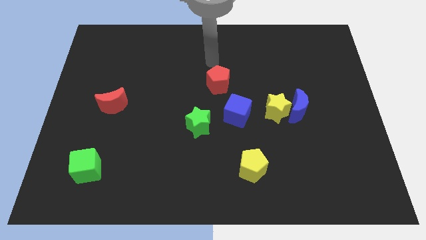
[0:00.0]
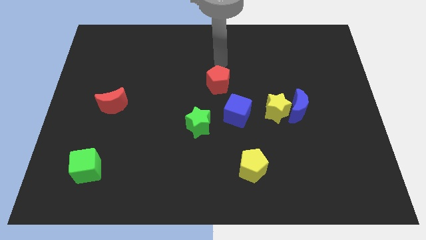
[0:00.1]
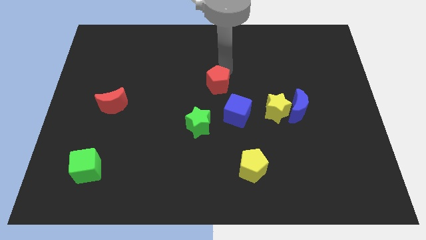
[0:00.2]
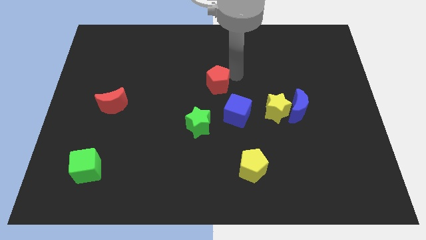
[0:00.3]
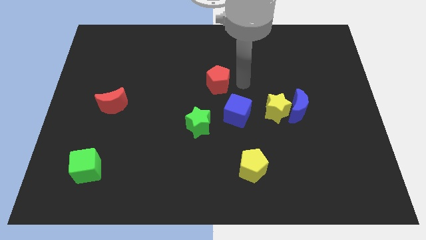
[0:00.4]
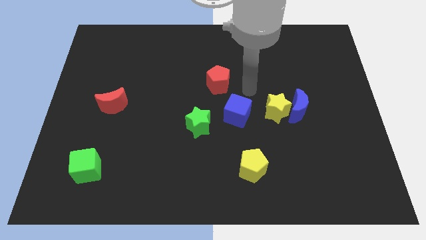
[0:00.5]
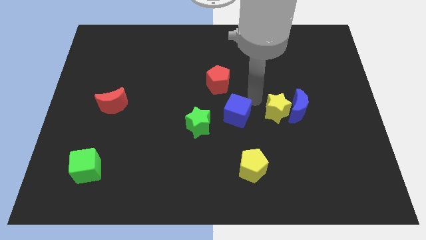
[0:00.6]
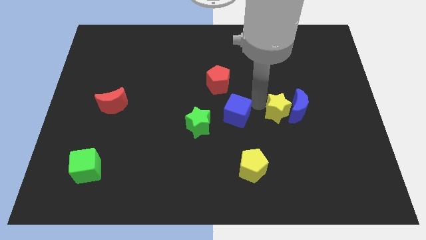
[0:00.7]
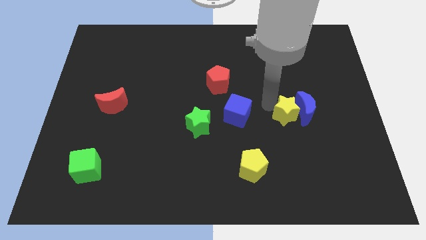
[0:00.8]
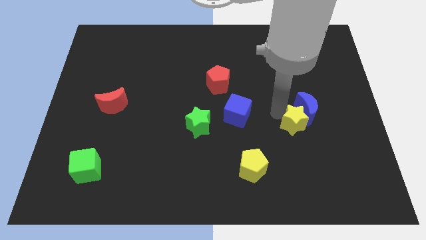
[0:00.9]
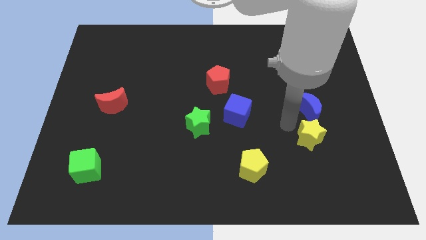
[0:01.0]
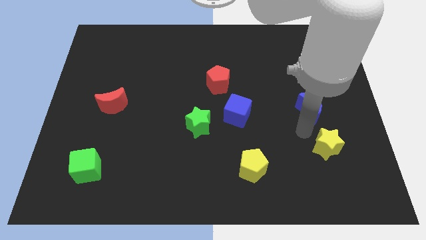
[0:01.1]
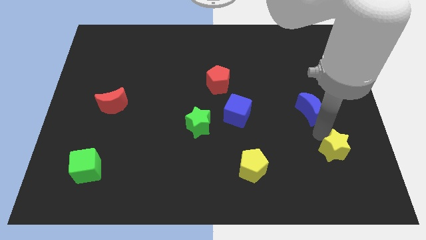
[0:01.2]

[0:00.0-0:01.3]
pull the blue moon apart from the yellow star

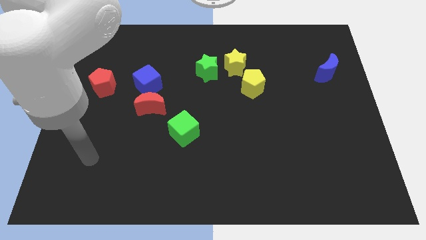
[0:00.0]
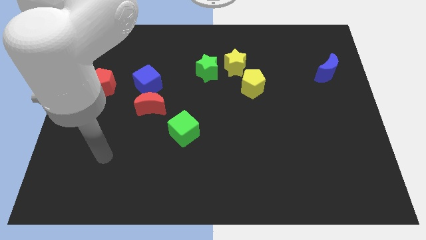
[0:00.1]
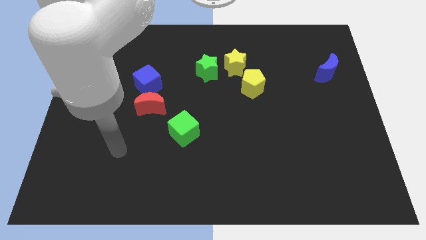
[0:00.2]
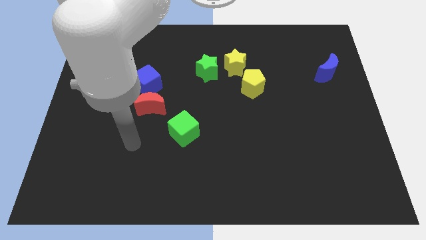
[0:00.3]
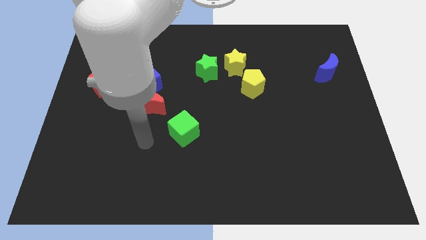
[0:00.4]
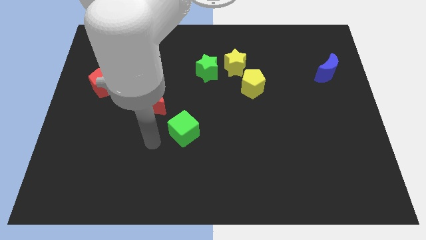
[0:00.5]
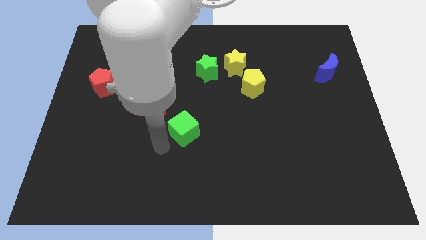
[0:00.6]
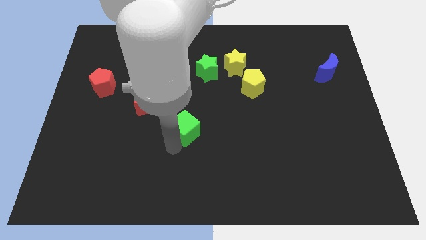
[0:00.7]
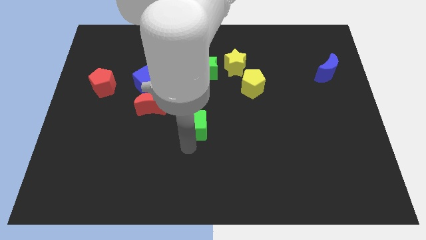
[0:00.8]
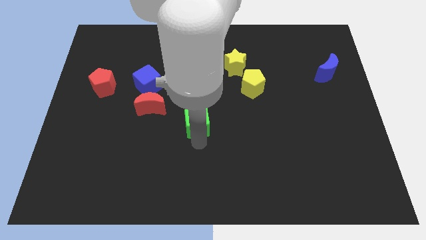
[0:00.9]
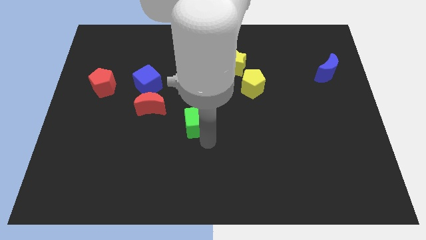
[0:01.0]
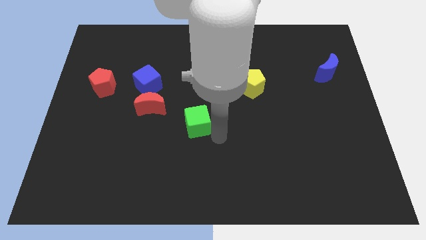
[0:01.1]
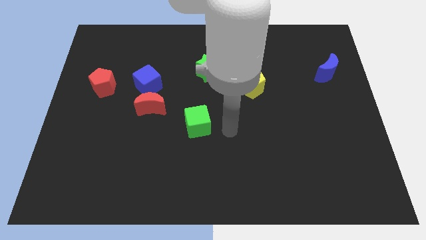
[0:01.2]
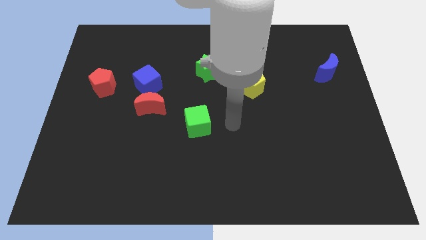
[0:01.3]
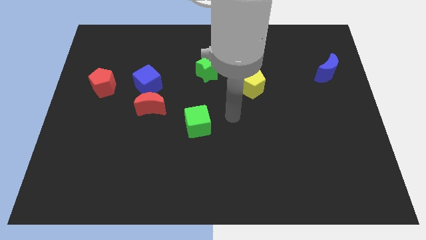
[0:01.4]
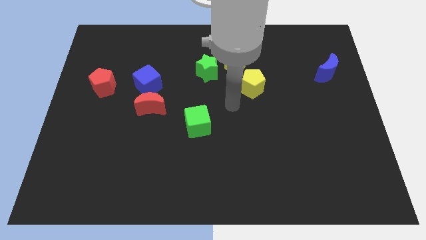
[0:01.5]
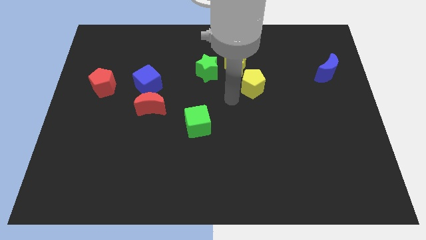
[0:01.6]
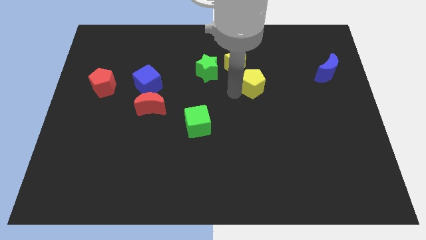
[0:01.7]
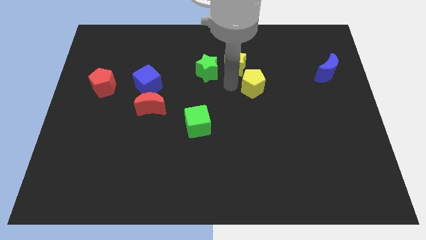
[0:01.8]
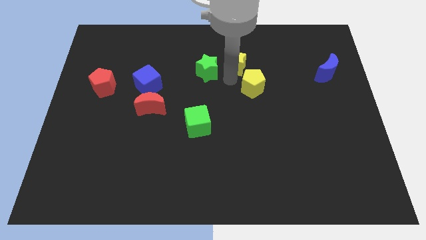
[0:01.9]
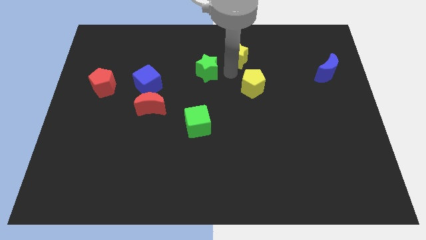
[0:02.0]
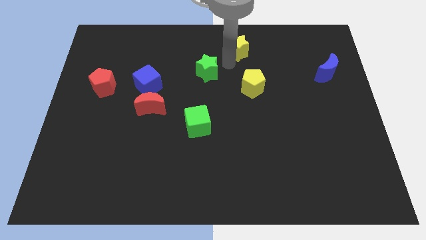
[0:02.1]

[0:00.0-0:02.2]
separate the green star from the yellow star

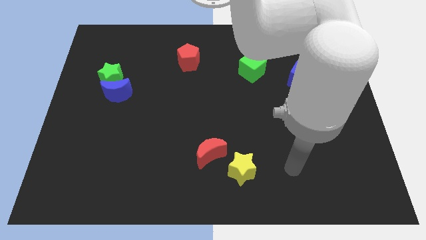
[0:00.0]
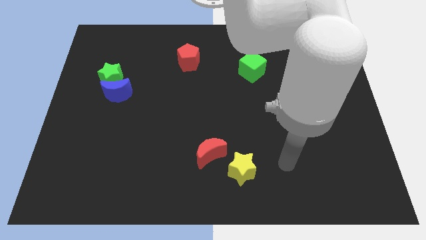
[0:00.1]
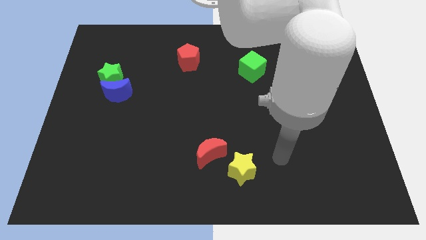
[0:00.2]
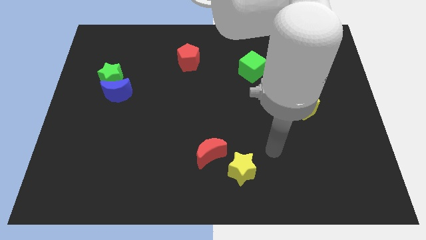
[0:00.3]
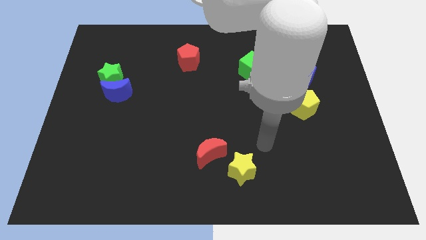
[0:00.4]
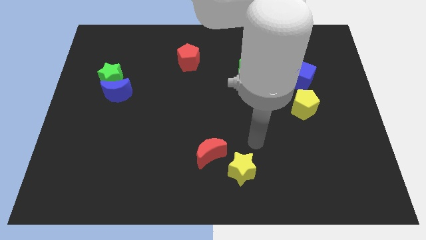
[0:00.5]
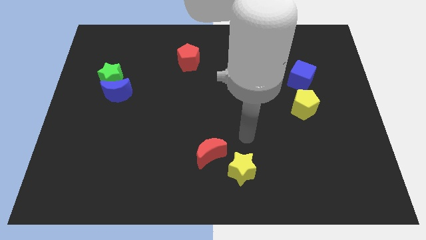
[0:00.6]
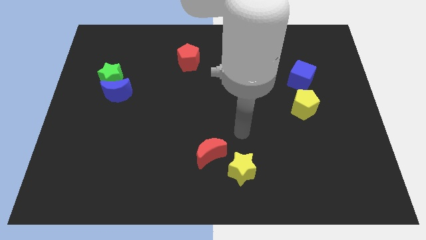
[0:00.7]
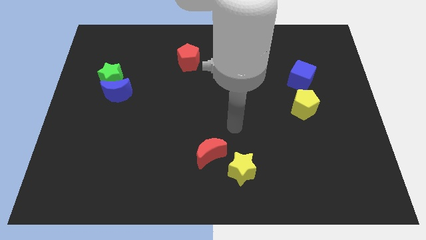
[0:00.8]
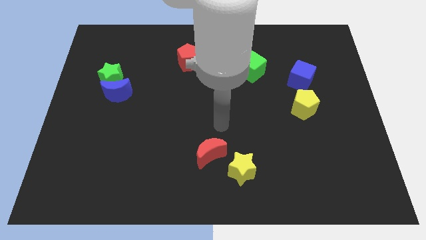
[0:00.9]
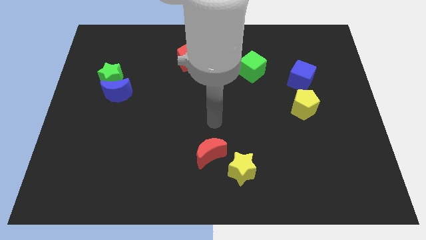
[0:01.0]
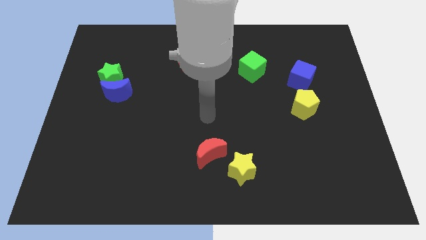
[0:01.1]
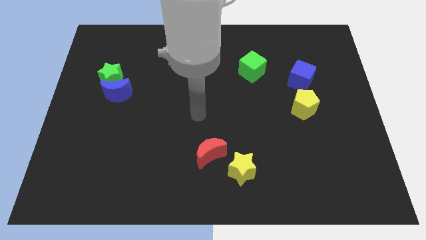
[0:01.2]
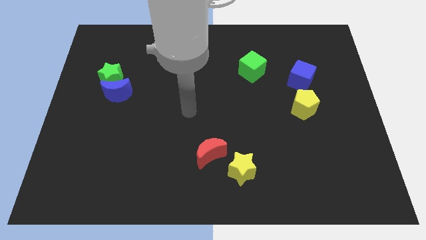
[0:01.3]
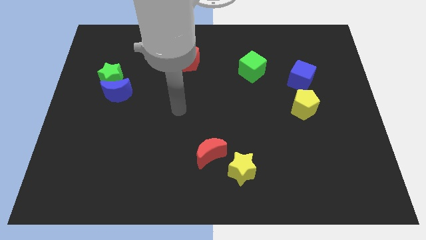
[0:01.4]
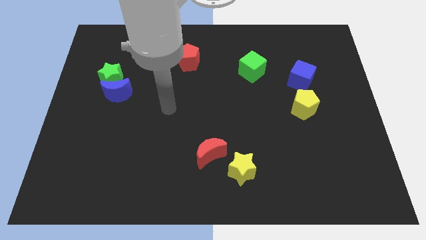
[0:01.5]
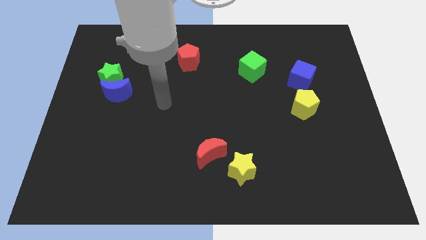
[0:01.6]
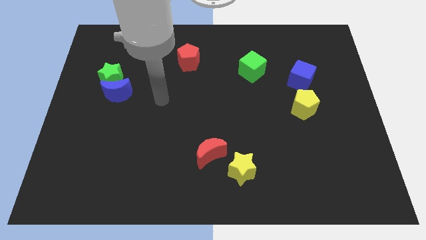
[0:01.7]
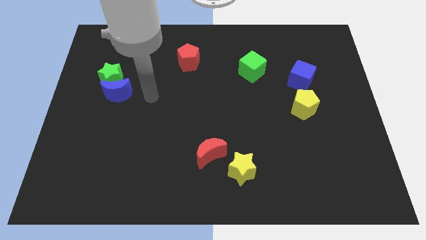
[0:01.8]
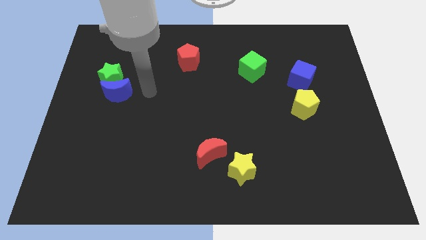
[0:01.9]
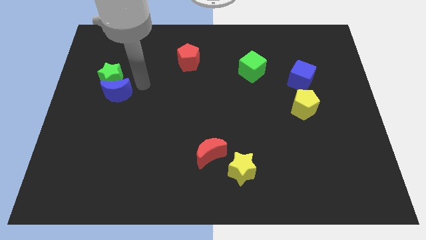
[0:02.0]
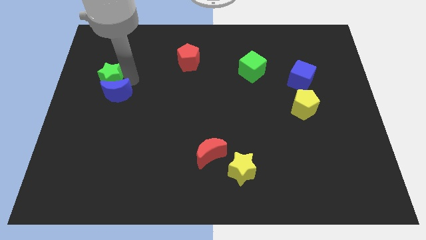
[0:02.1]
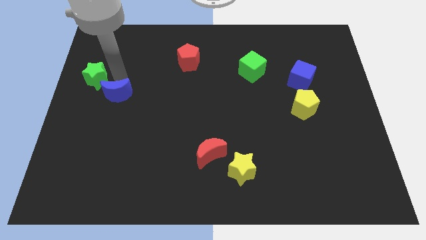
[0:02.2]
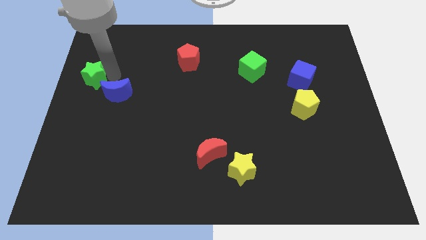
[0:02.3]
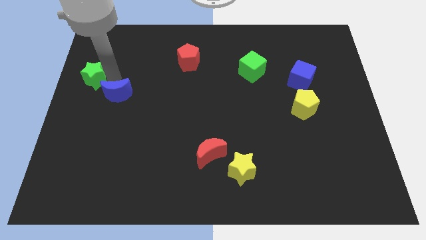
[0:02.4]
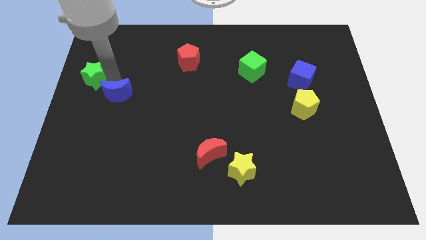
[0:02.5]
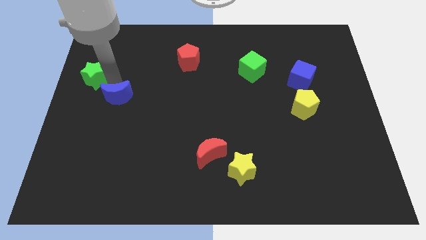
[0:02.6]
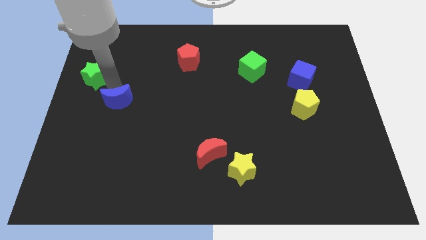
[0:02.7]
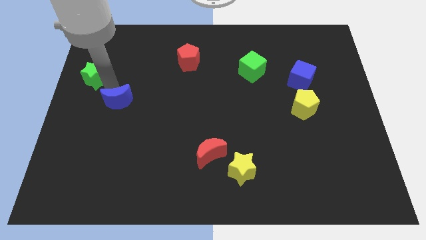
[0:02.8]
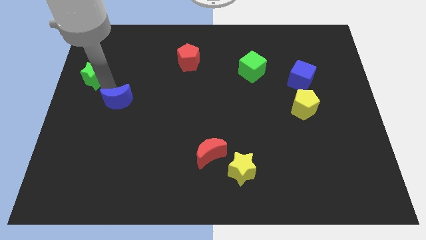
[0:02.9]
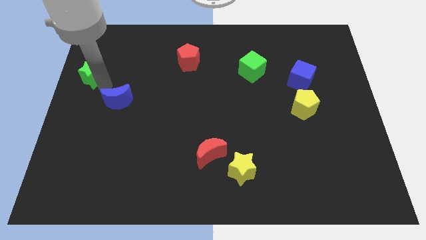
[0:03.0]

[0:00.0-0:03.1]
move the blue moon away from the green star

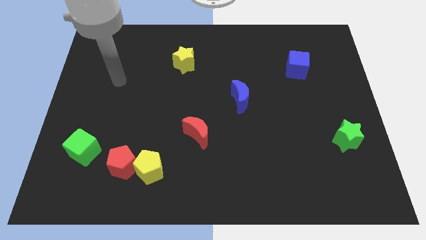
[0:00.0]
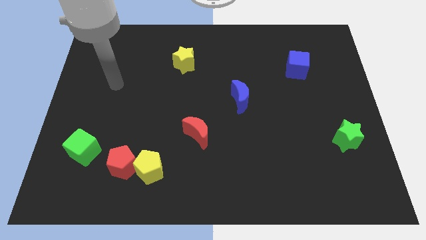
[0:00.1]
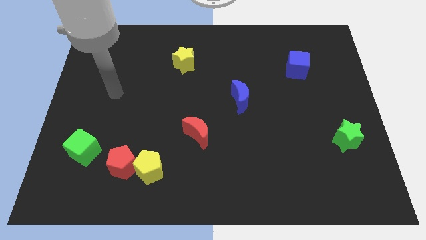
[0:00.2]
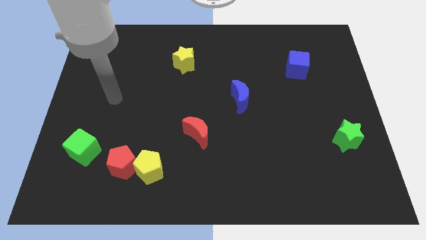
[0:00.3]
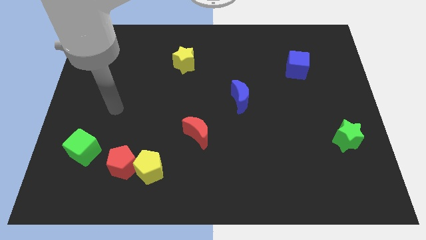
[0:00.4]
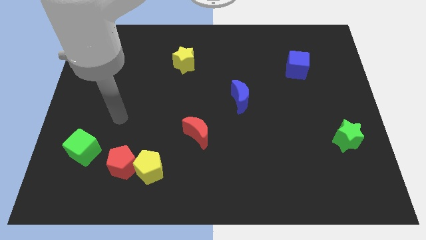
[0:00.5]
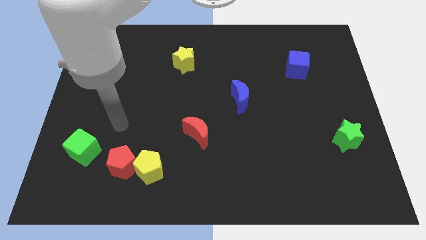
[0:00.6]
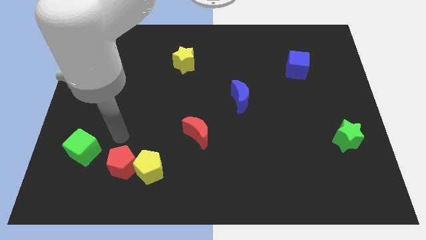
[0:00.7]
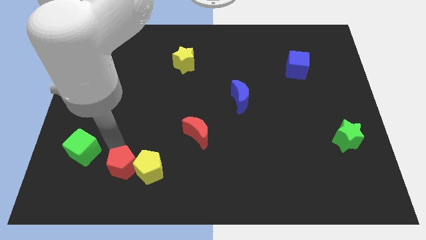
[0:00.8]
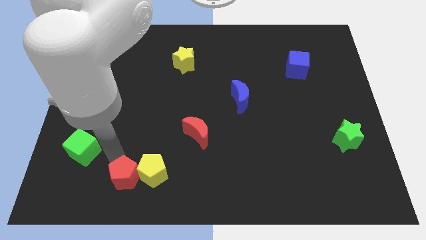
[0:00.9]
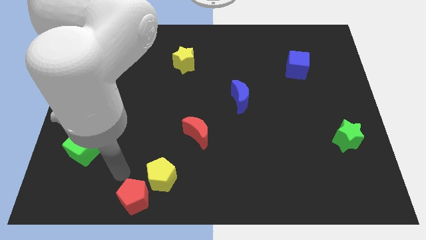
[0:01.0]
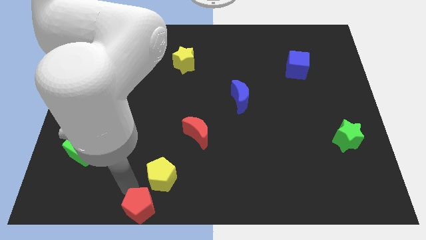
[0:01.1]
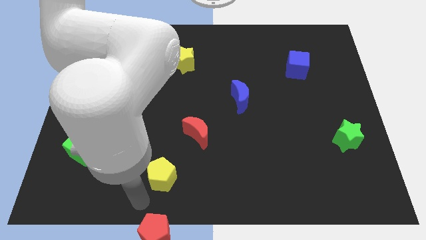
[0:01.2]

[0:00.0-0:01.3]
pull the yellow pentagon apart from the red pentagon

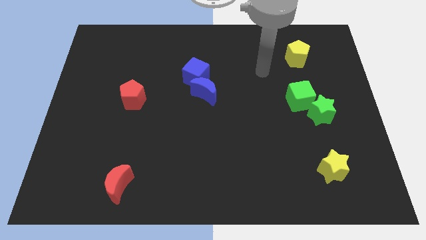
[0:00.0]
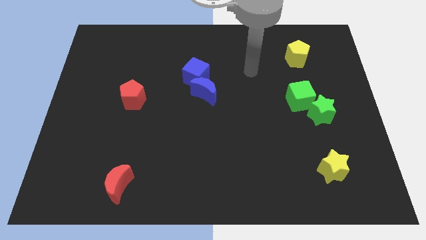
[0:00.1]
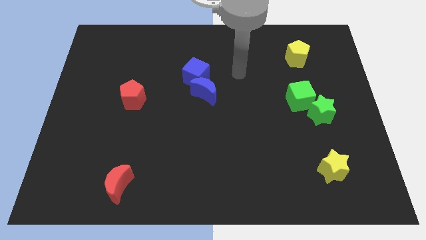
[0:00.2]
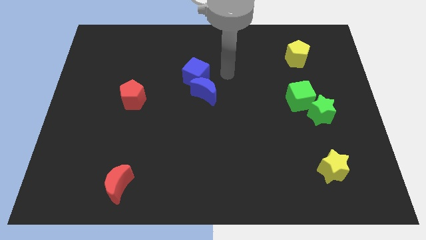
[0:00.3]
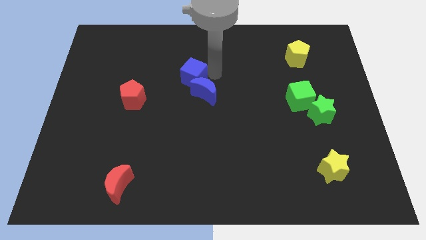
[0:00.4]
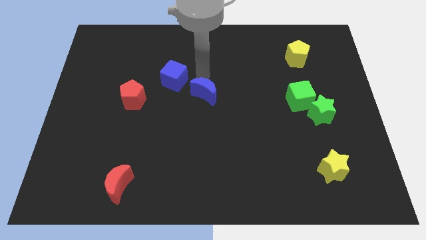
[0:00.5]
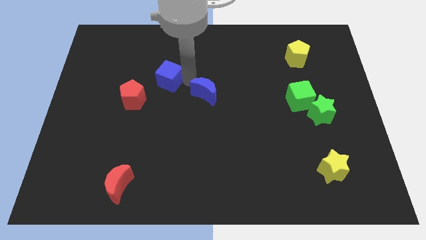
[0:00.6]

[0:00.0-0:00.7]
move the blue moon away from the blue cube

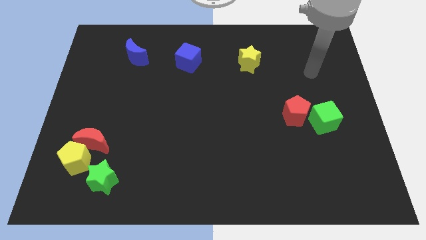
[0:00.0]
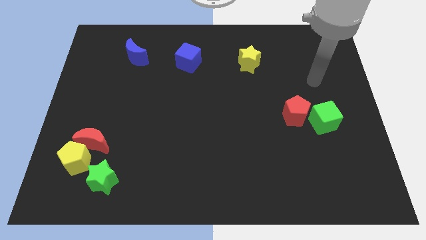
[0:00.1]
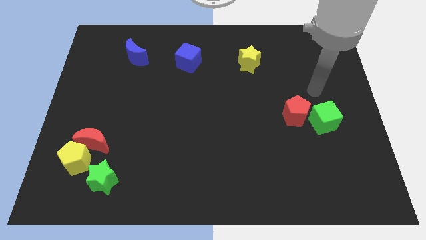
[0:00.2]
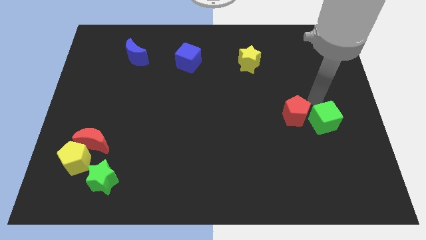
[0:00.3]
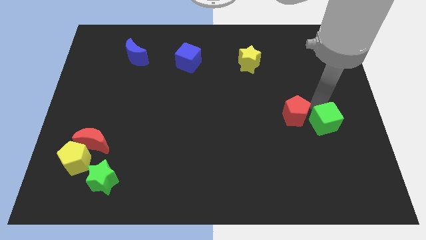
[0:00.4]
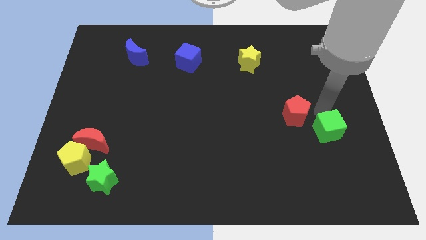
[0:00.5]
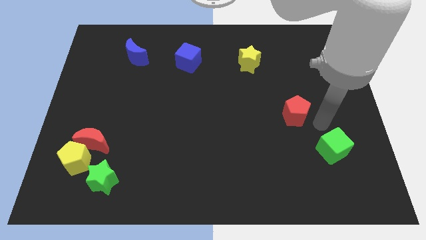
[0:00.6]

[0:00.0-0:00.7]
move the red pentagon away from the green cube
